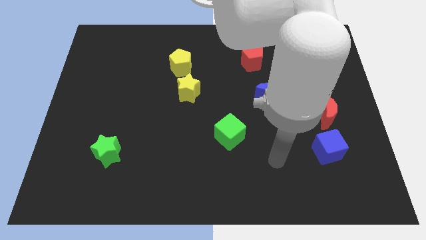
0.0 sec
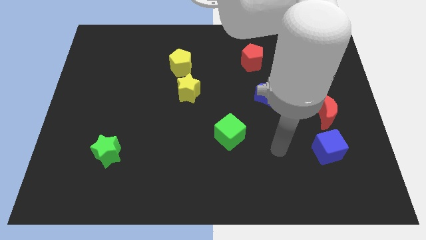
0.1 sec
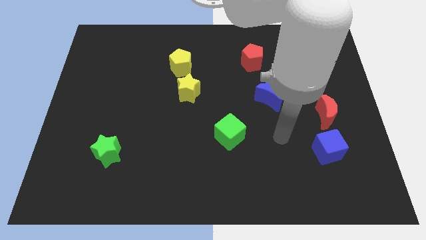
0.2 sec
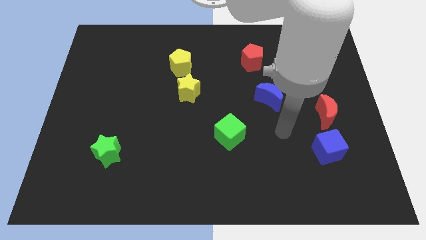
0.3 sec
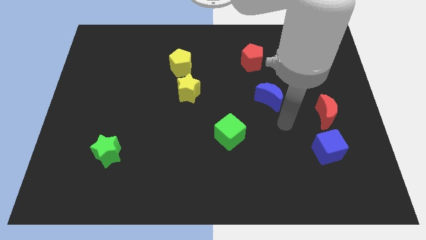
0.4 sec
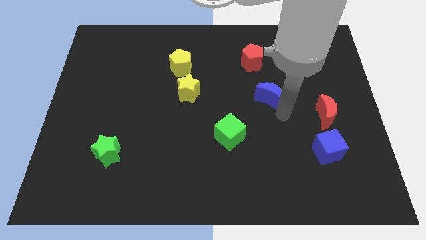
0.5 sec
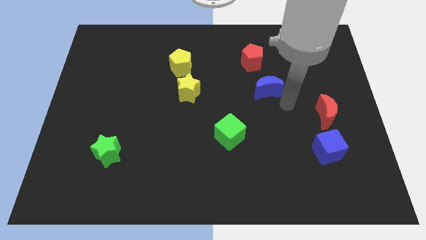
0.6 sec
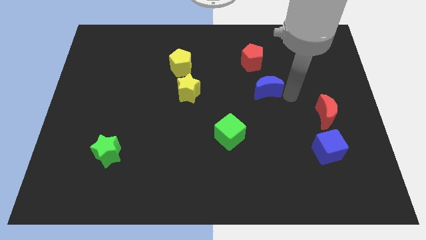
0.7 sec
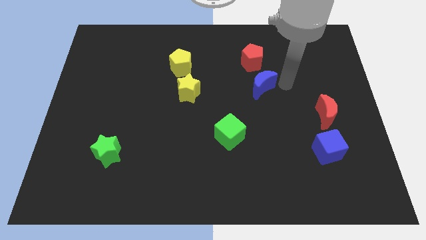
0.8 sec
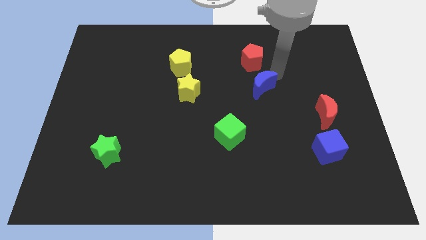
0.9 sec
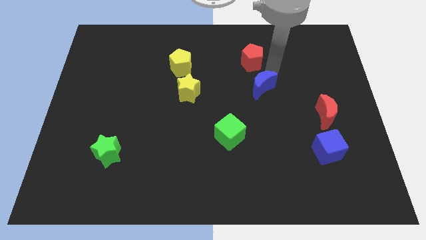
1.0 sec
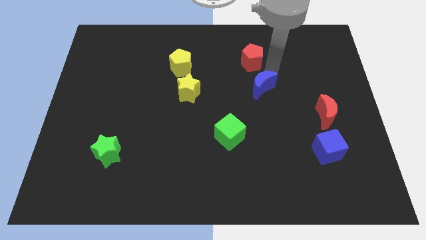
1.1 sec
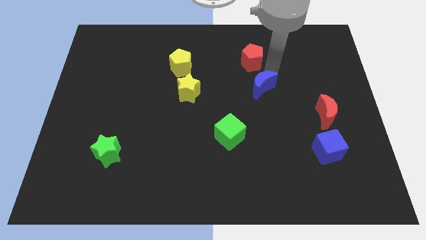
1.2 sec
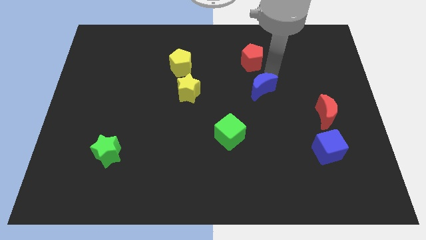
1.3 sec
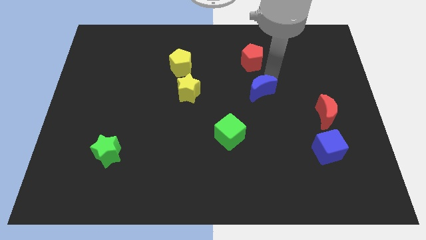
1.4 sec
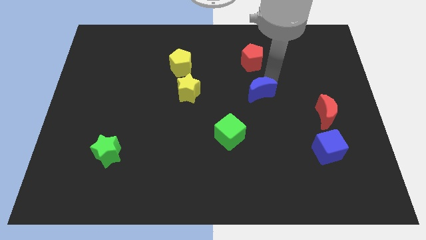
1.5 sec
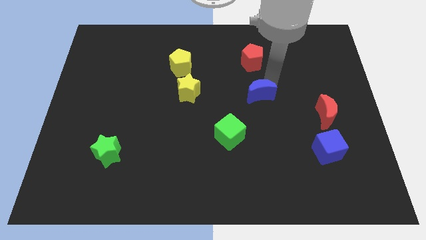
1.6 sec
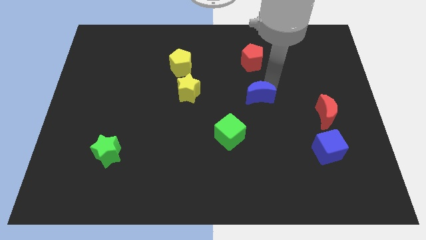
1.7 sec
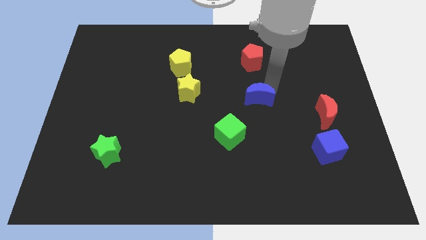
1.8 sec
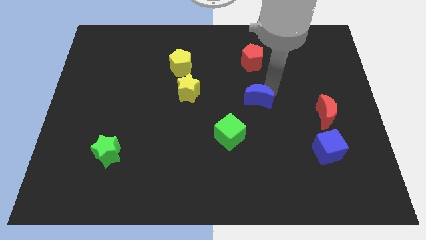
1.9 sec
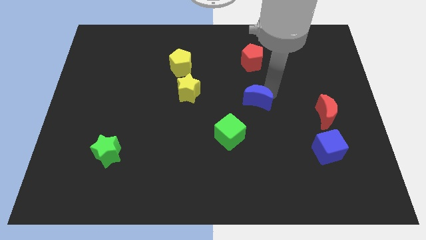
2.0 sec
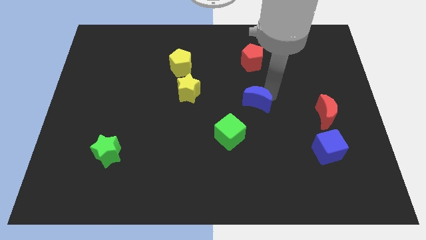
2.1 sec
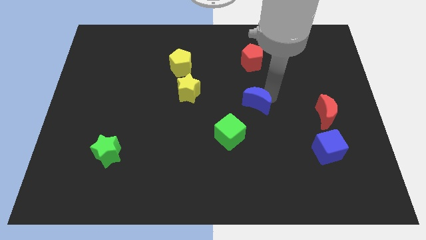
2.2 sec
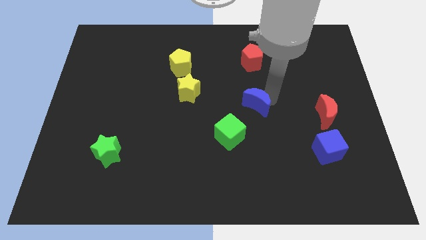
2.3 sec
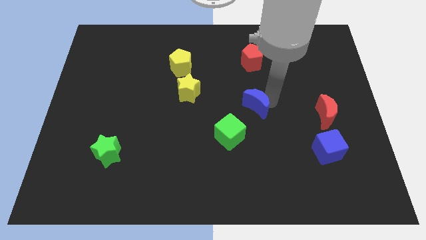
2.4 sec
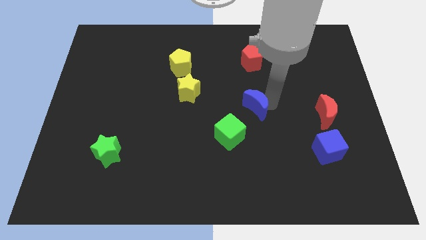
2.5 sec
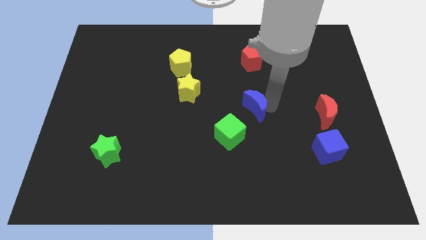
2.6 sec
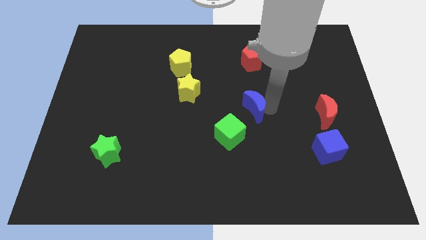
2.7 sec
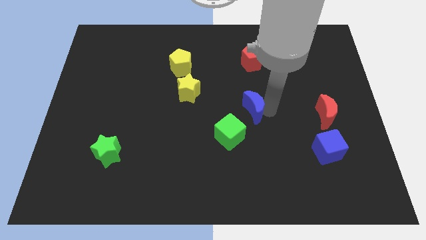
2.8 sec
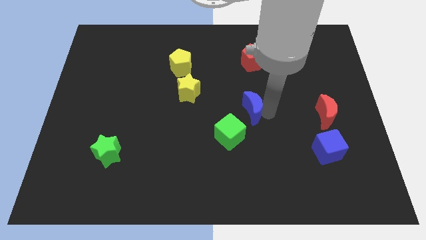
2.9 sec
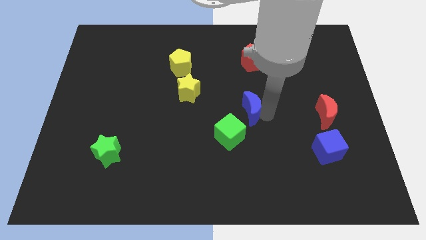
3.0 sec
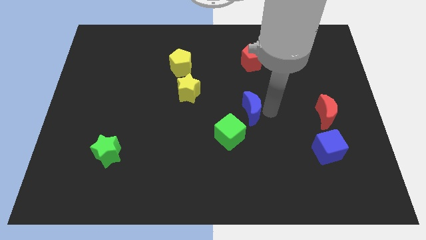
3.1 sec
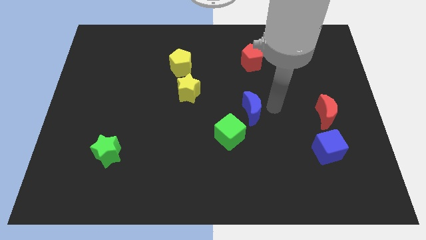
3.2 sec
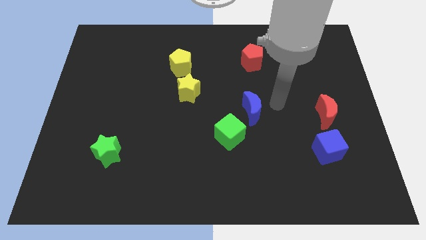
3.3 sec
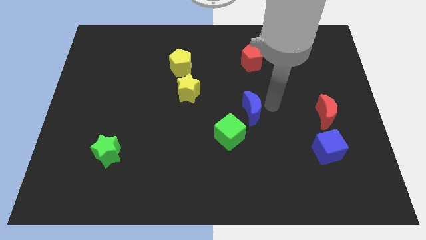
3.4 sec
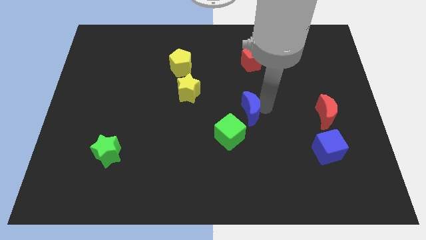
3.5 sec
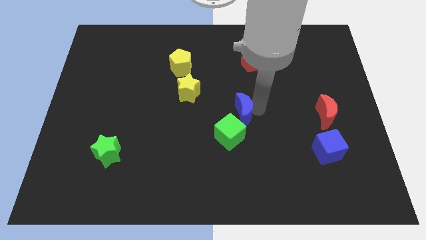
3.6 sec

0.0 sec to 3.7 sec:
slide the blue moon somewhat diagonally downwards and left

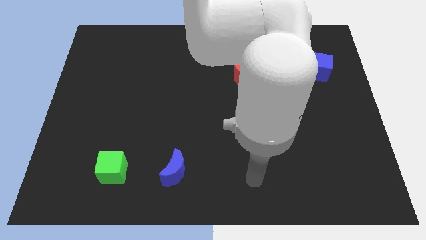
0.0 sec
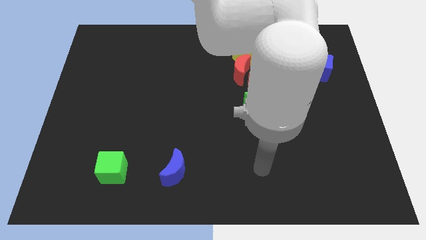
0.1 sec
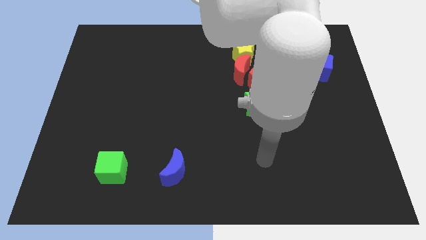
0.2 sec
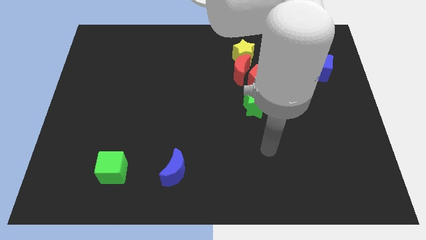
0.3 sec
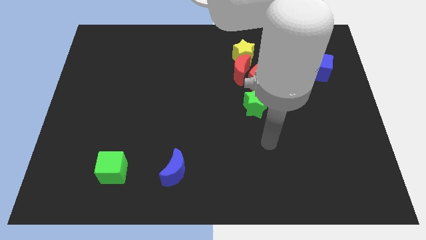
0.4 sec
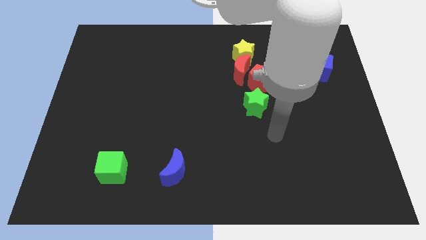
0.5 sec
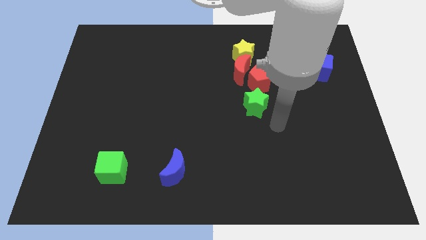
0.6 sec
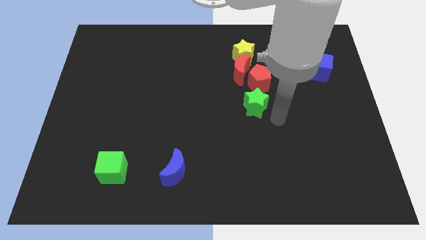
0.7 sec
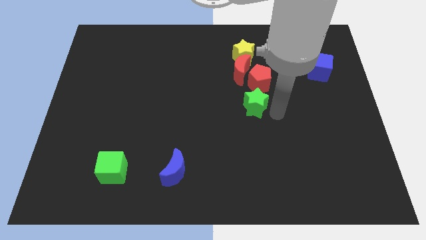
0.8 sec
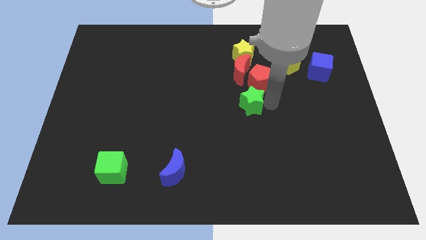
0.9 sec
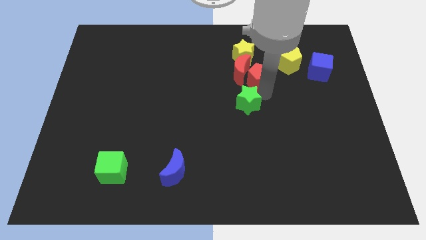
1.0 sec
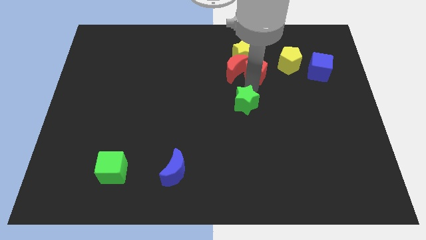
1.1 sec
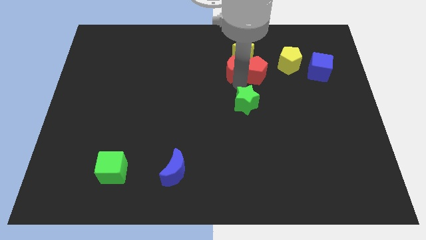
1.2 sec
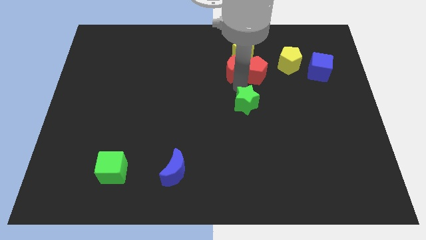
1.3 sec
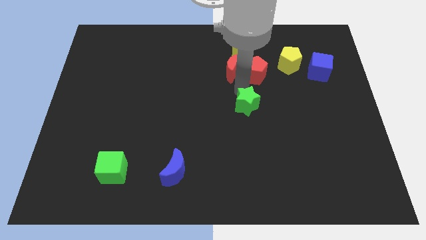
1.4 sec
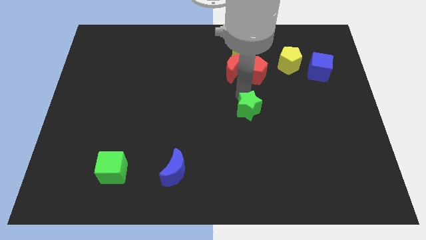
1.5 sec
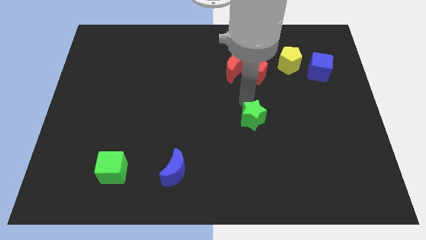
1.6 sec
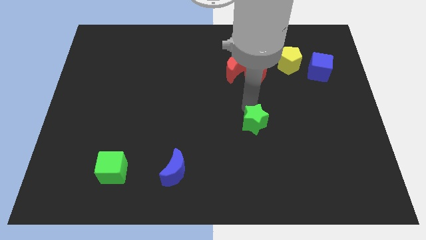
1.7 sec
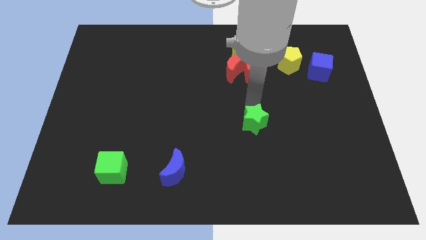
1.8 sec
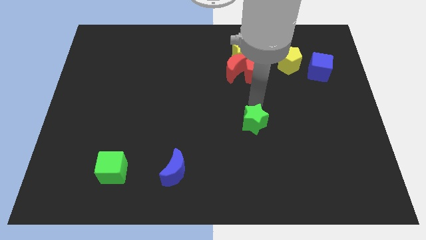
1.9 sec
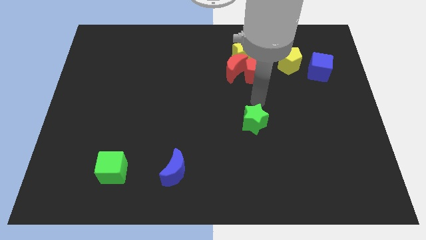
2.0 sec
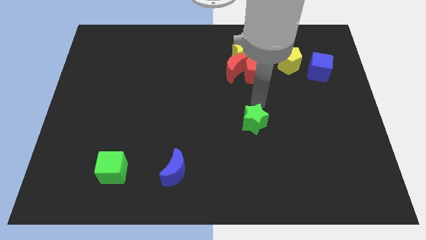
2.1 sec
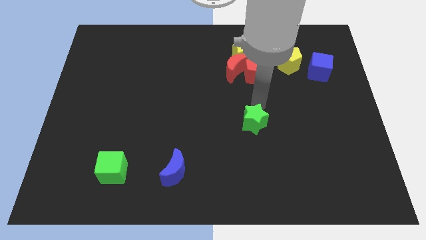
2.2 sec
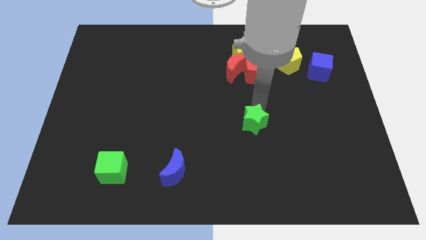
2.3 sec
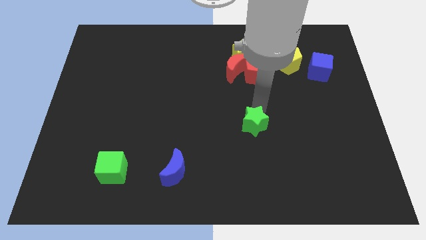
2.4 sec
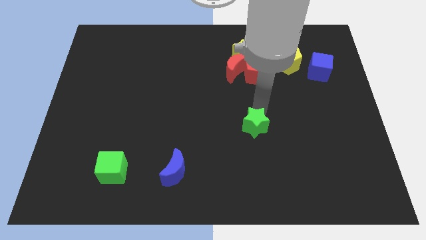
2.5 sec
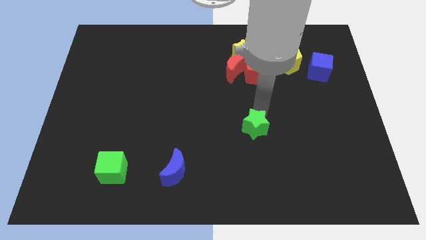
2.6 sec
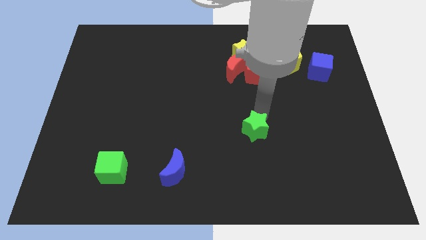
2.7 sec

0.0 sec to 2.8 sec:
slide the green star down a little

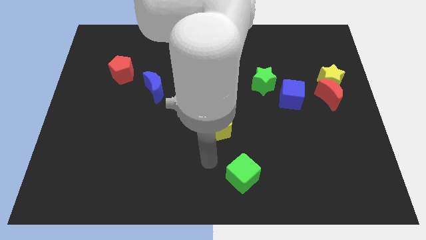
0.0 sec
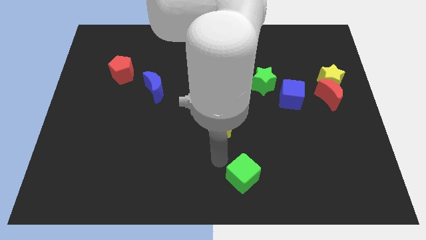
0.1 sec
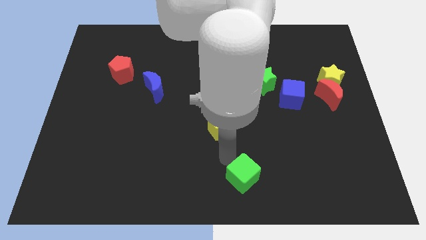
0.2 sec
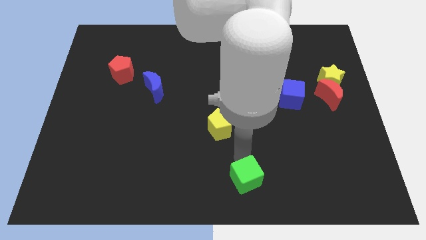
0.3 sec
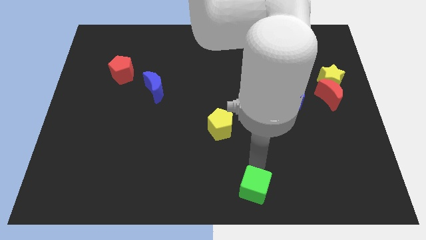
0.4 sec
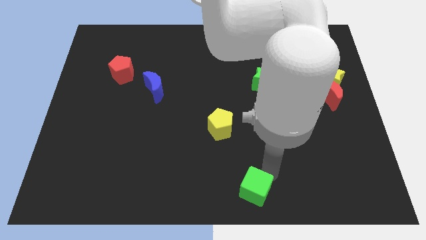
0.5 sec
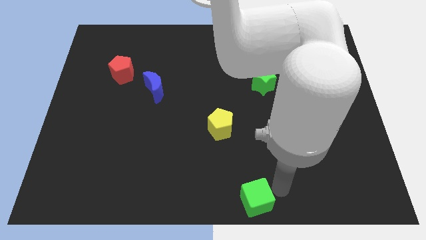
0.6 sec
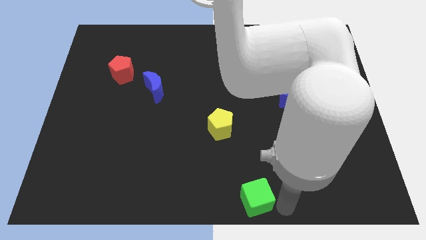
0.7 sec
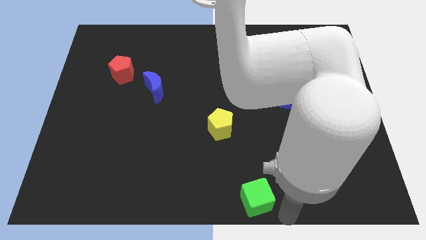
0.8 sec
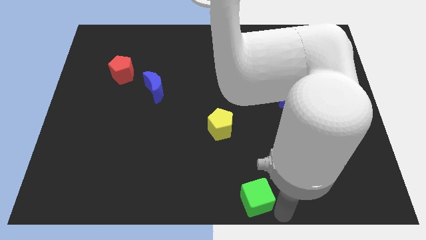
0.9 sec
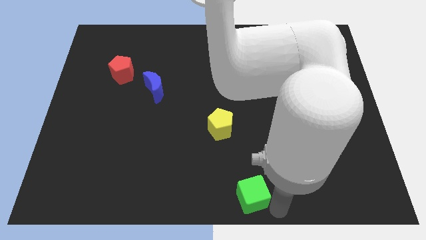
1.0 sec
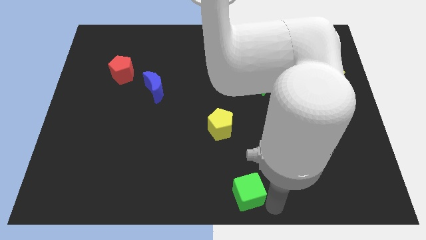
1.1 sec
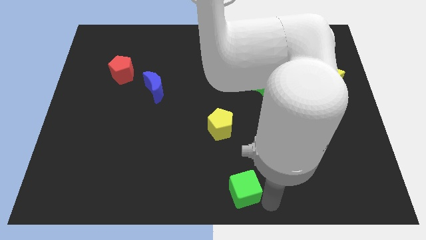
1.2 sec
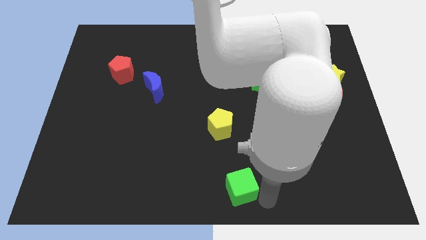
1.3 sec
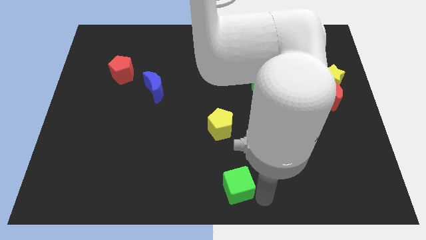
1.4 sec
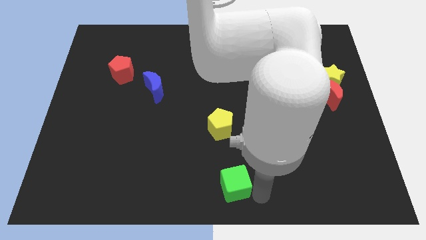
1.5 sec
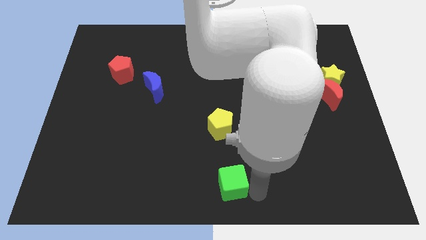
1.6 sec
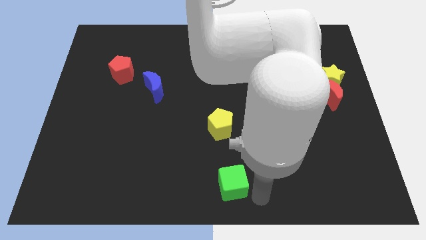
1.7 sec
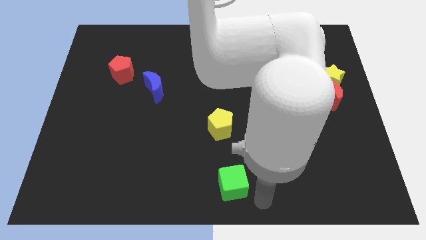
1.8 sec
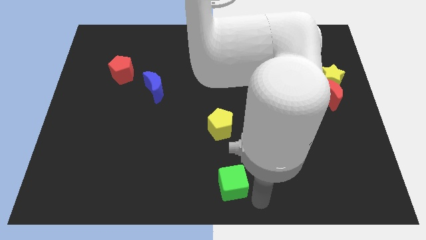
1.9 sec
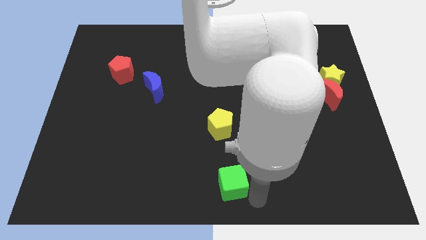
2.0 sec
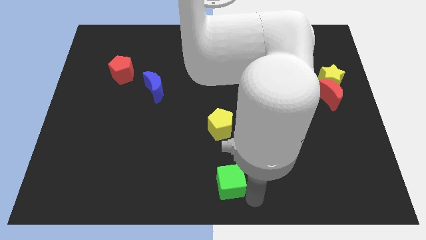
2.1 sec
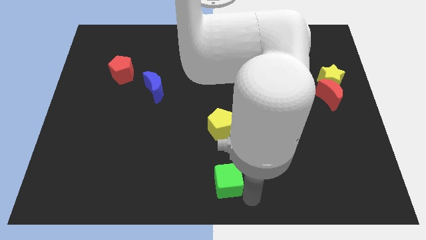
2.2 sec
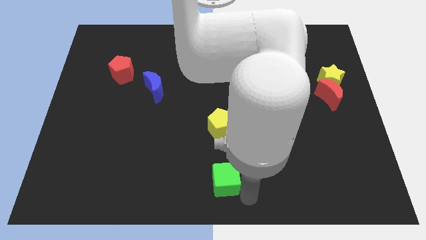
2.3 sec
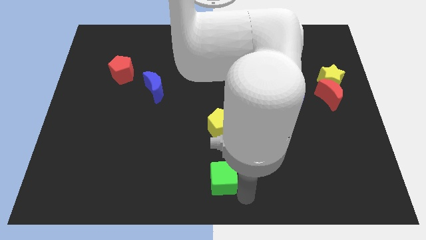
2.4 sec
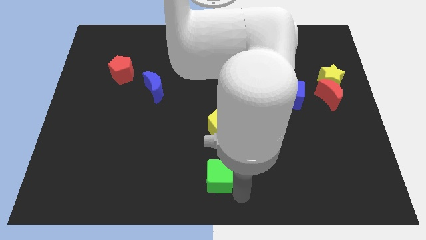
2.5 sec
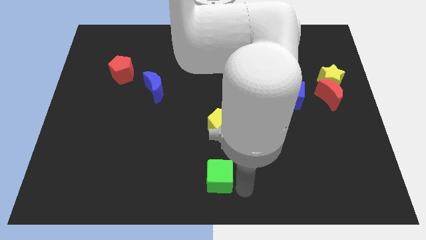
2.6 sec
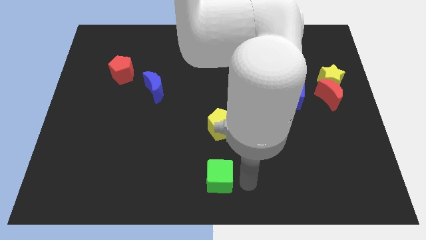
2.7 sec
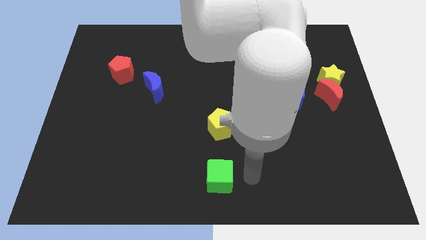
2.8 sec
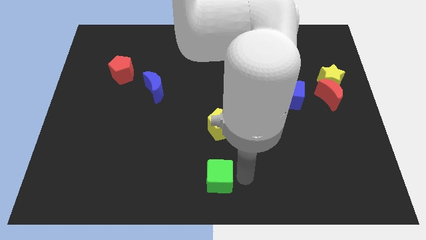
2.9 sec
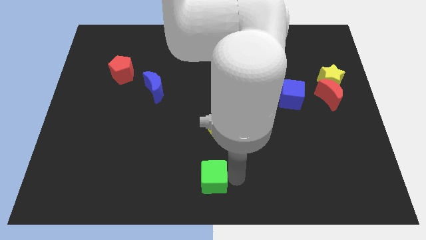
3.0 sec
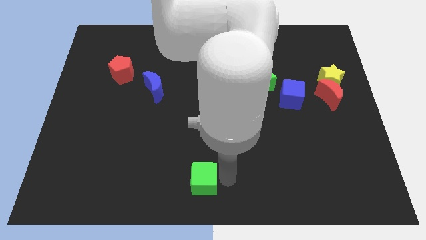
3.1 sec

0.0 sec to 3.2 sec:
slightly move the green cube left
